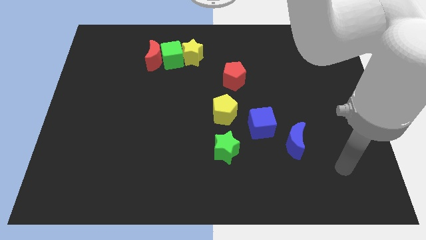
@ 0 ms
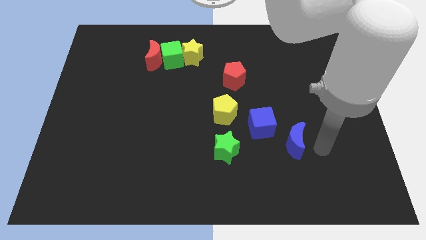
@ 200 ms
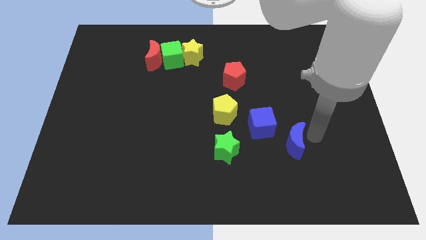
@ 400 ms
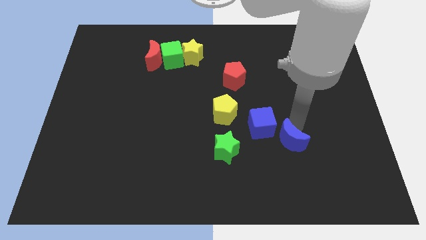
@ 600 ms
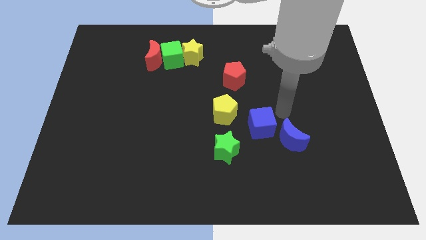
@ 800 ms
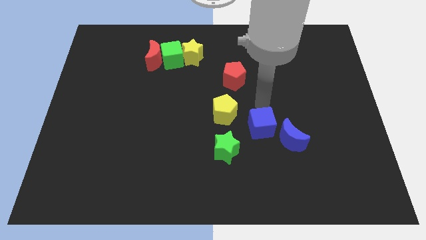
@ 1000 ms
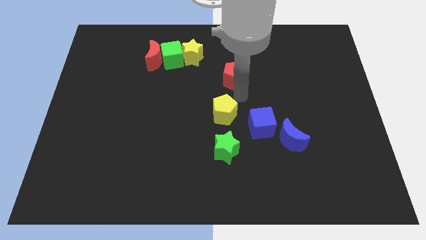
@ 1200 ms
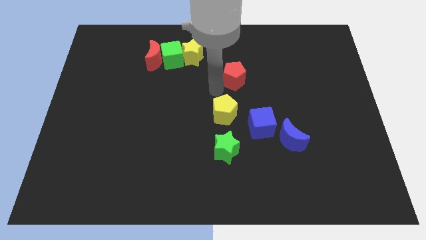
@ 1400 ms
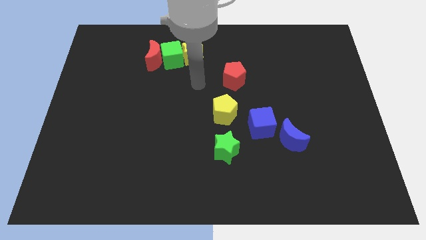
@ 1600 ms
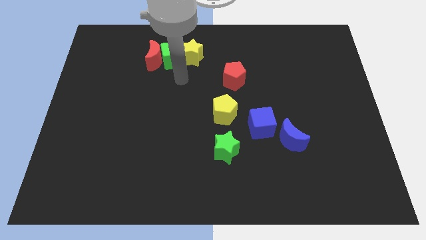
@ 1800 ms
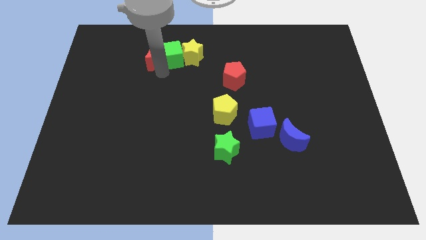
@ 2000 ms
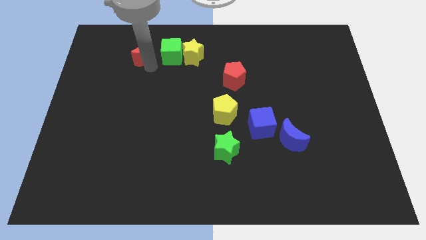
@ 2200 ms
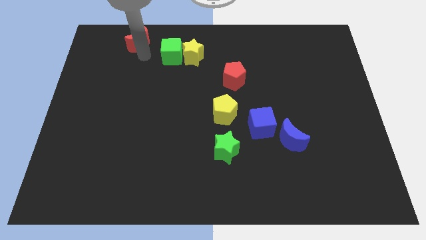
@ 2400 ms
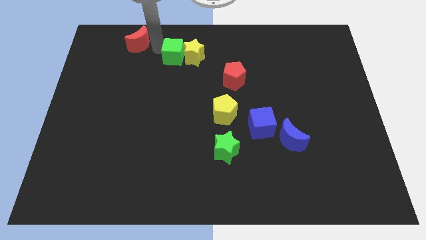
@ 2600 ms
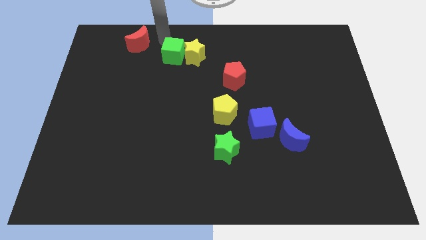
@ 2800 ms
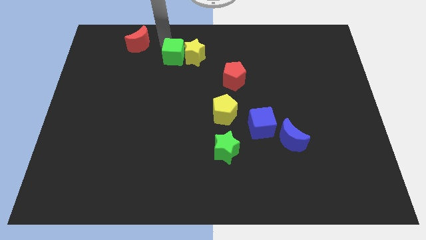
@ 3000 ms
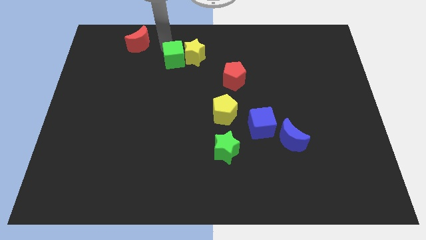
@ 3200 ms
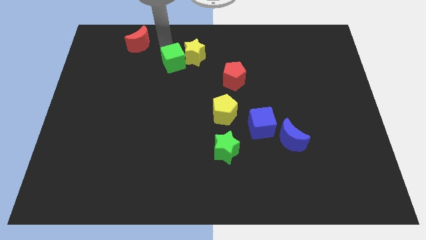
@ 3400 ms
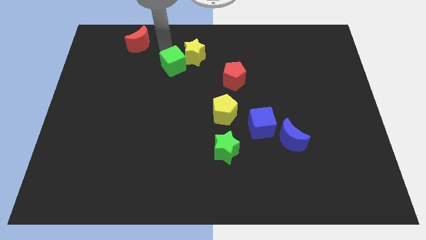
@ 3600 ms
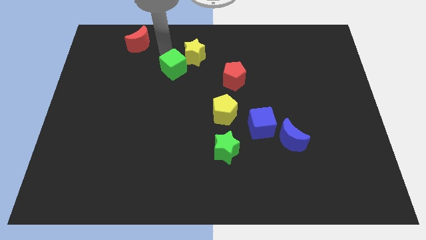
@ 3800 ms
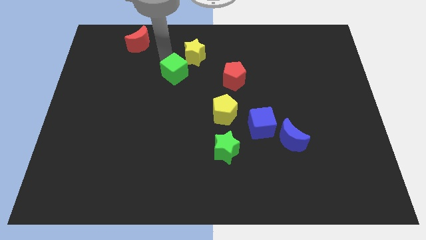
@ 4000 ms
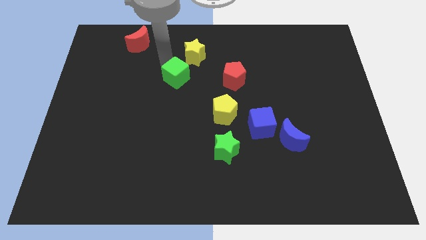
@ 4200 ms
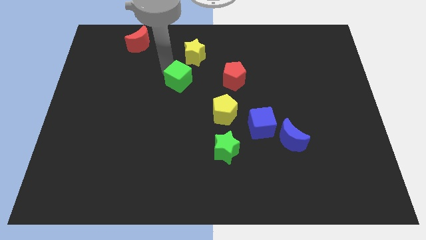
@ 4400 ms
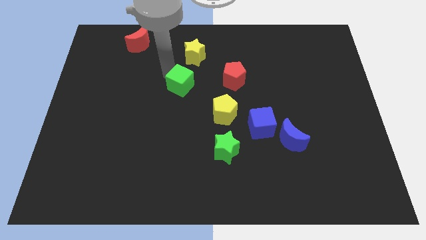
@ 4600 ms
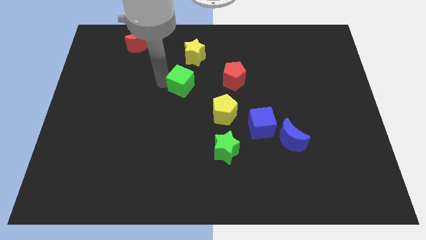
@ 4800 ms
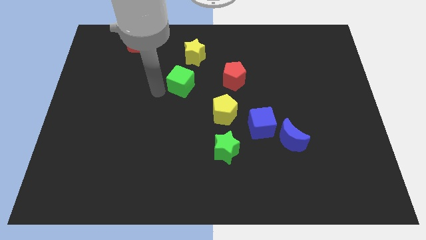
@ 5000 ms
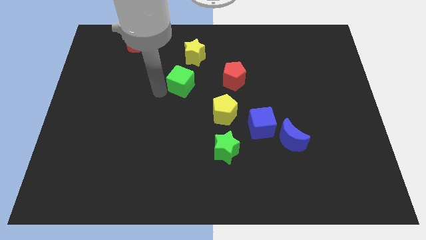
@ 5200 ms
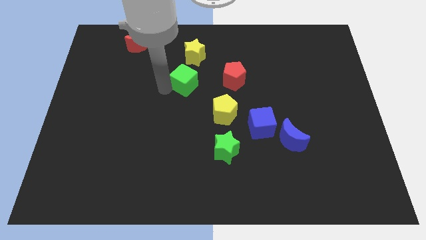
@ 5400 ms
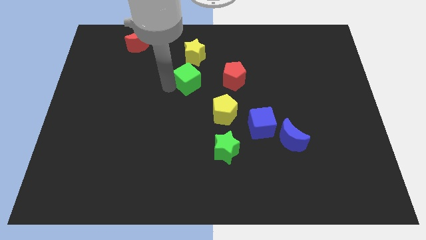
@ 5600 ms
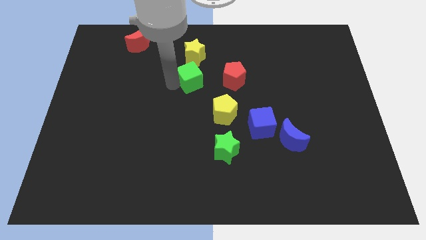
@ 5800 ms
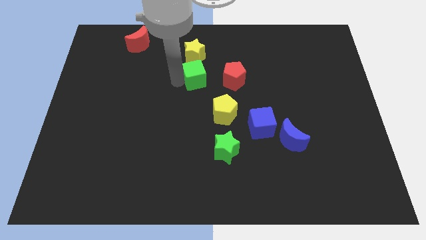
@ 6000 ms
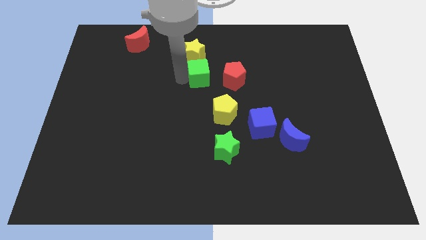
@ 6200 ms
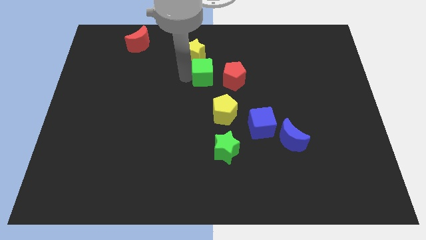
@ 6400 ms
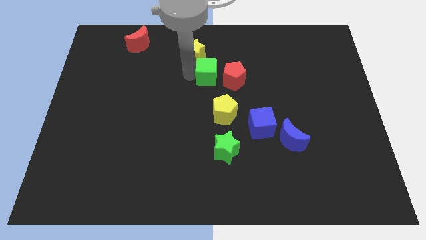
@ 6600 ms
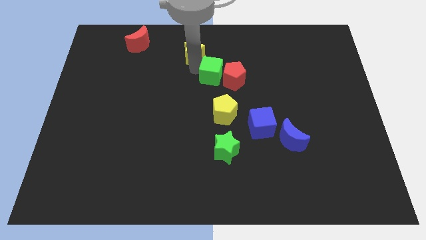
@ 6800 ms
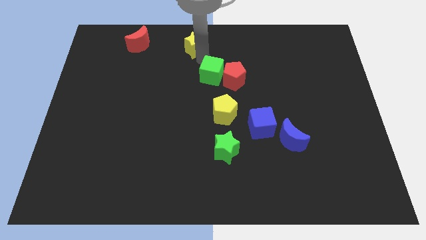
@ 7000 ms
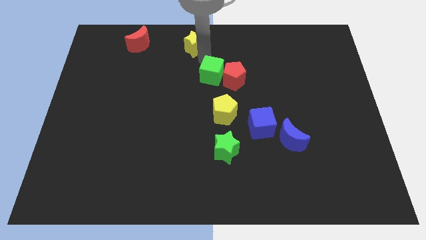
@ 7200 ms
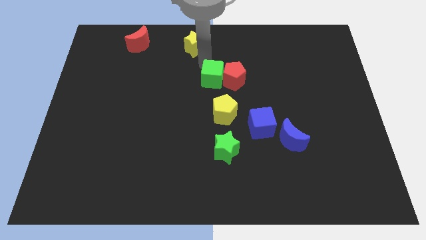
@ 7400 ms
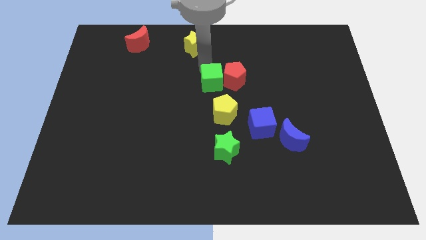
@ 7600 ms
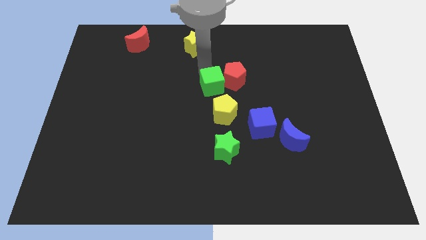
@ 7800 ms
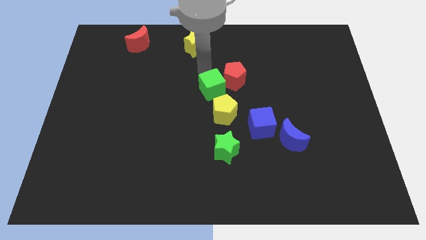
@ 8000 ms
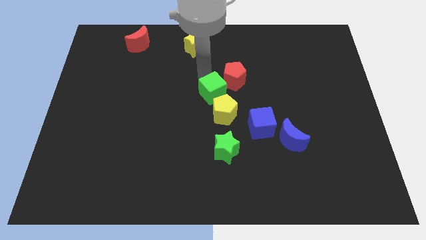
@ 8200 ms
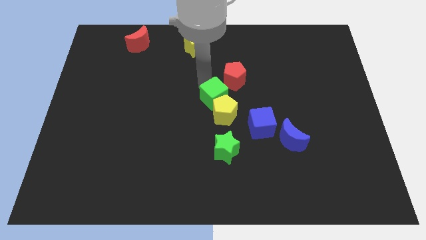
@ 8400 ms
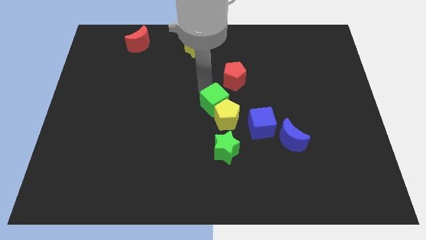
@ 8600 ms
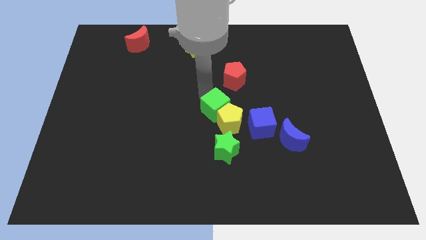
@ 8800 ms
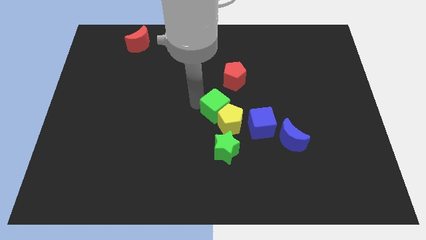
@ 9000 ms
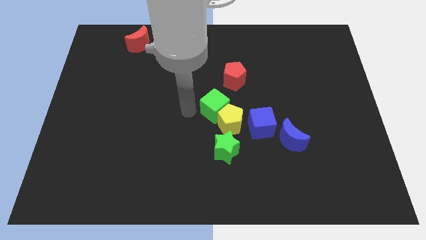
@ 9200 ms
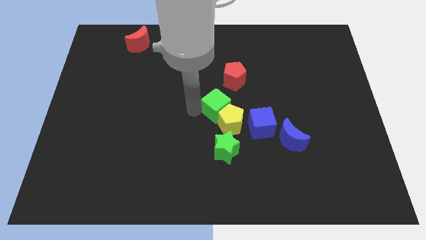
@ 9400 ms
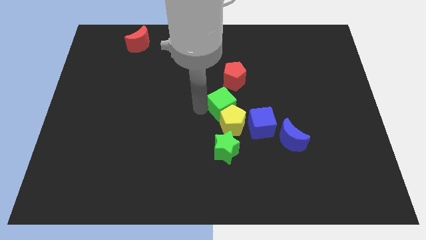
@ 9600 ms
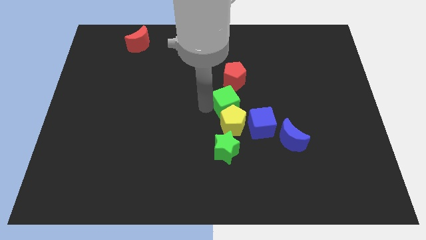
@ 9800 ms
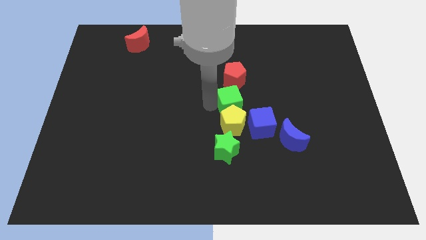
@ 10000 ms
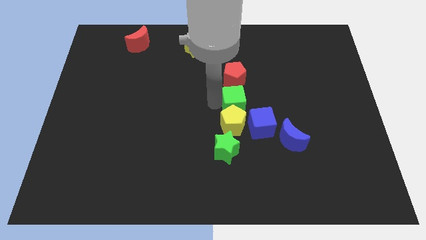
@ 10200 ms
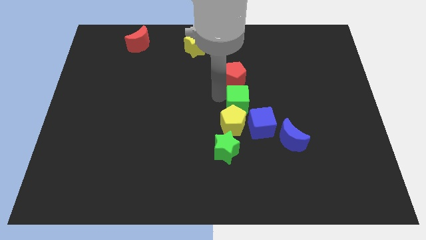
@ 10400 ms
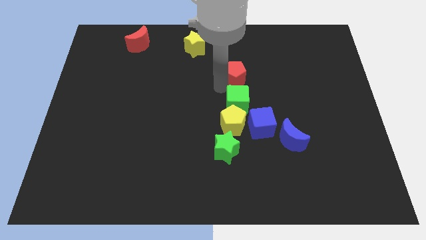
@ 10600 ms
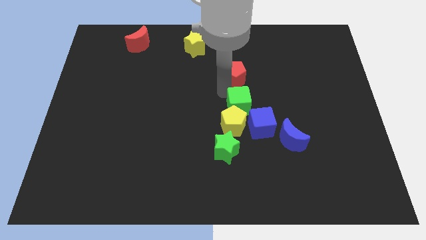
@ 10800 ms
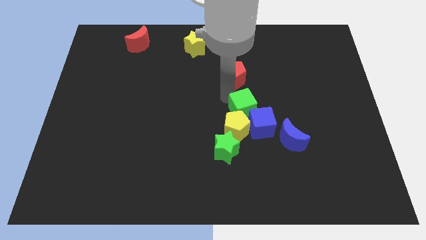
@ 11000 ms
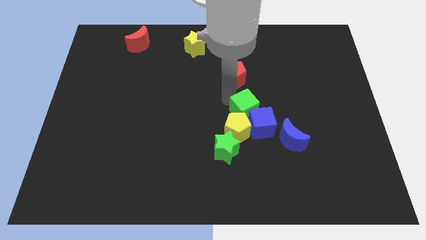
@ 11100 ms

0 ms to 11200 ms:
push the green cube next to the blue cube

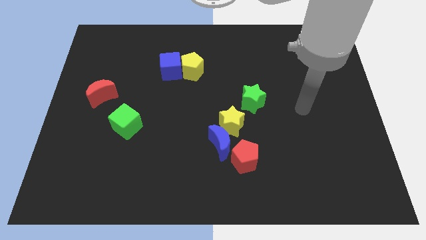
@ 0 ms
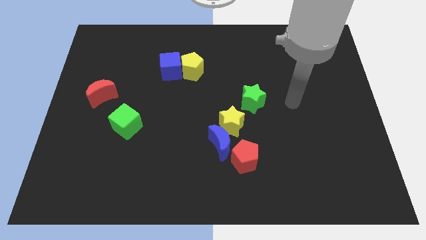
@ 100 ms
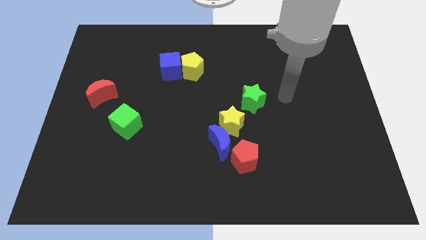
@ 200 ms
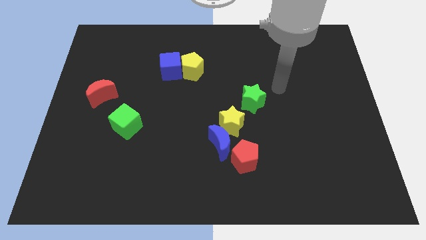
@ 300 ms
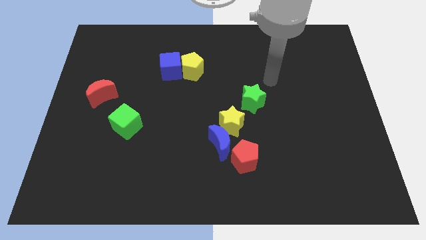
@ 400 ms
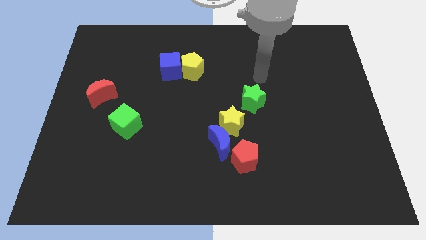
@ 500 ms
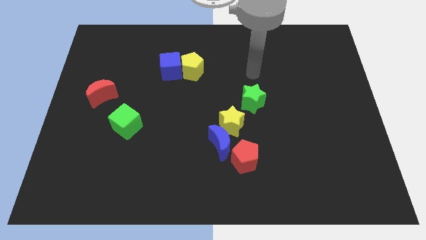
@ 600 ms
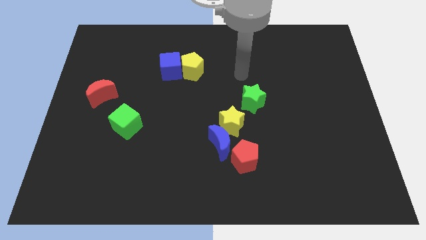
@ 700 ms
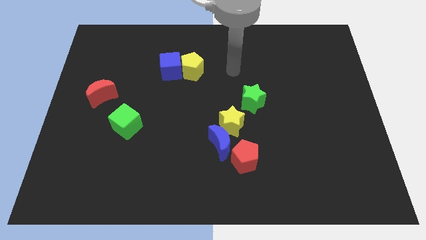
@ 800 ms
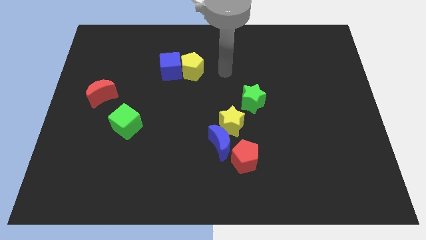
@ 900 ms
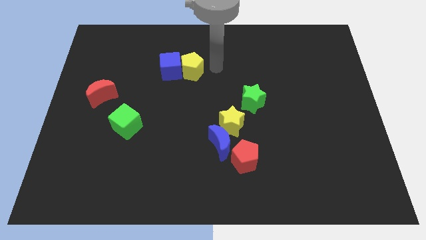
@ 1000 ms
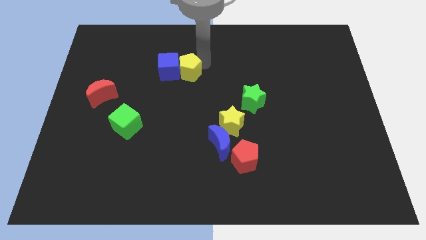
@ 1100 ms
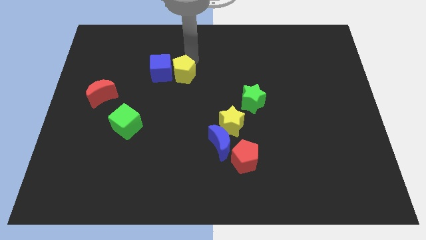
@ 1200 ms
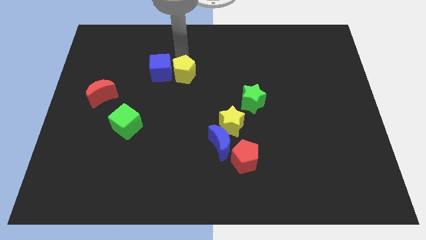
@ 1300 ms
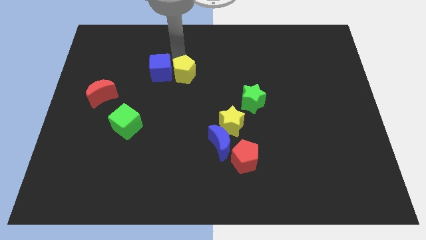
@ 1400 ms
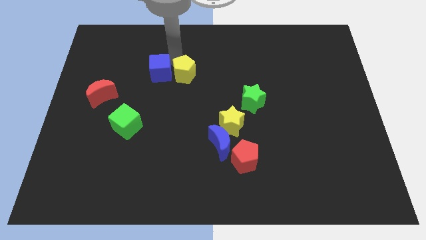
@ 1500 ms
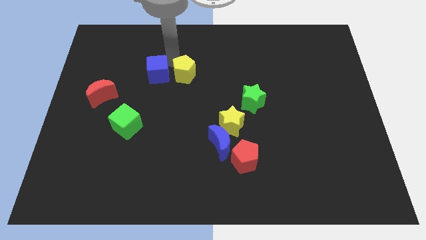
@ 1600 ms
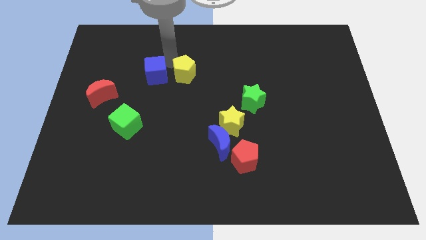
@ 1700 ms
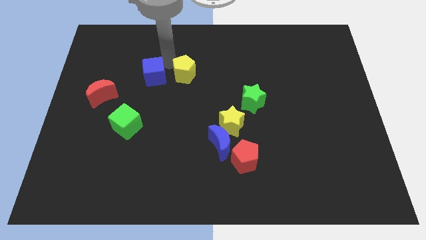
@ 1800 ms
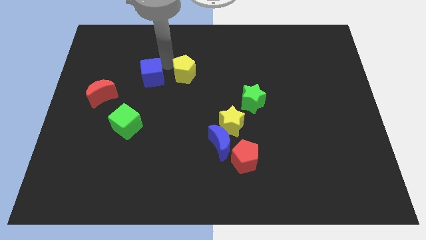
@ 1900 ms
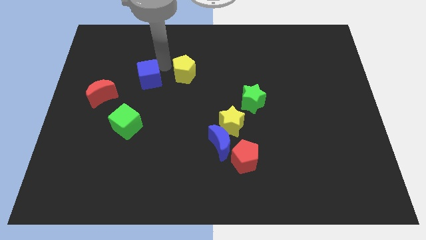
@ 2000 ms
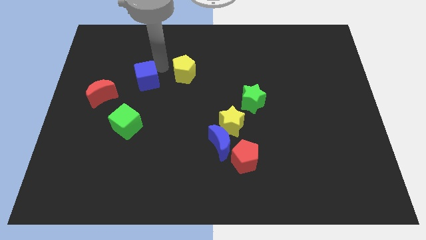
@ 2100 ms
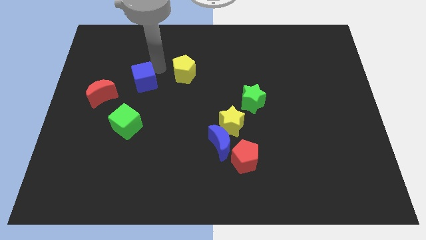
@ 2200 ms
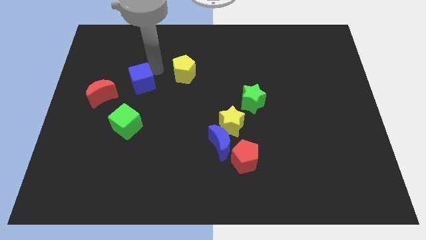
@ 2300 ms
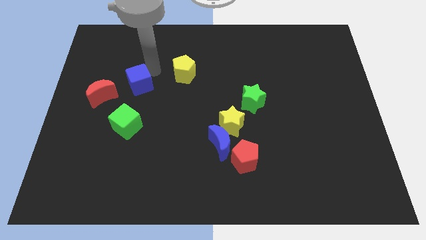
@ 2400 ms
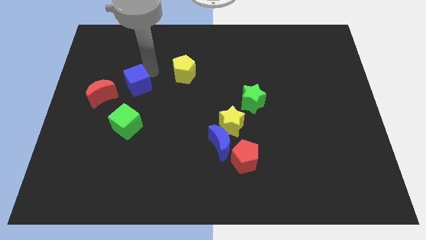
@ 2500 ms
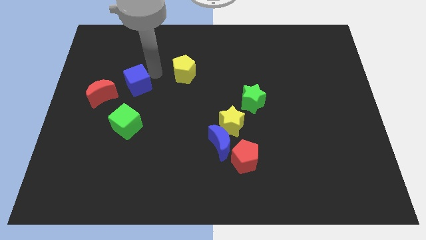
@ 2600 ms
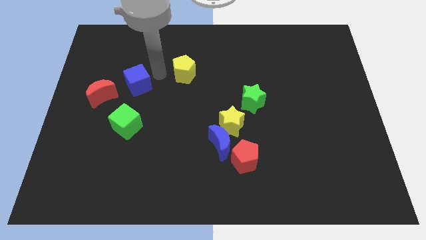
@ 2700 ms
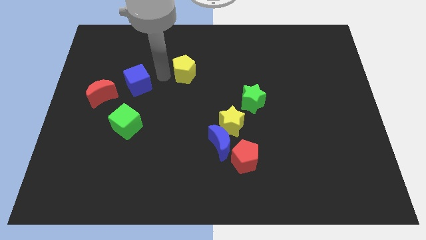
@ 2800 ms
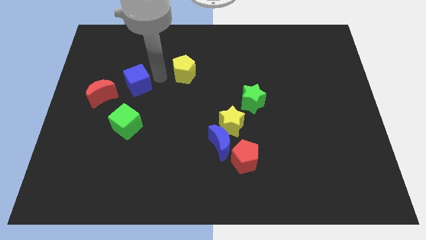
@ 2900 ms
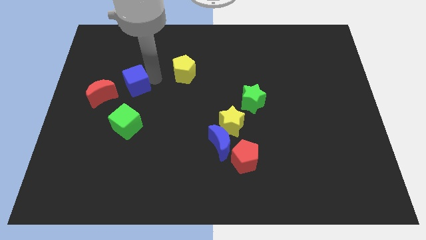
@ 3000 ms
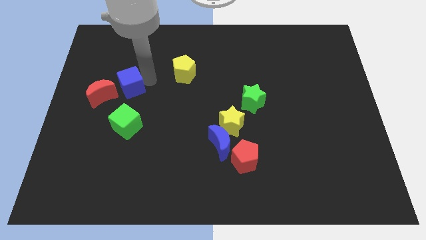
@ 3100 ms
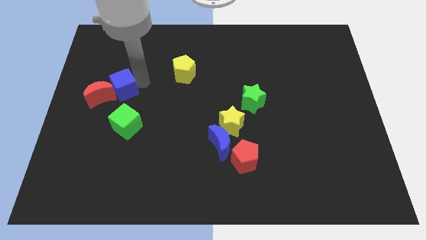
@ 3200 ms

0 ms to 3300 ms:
slide the blue cube next to the red moon
